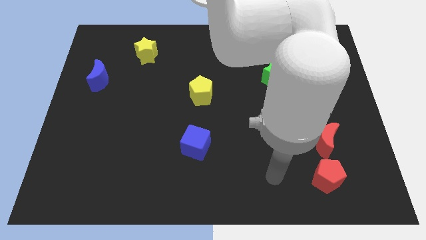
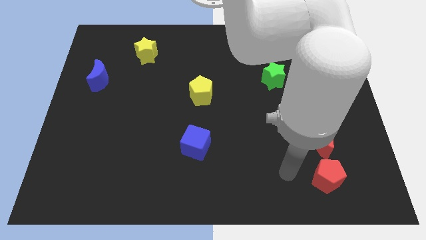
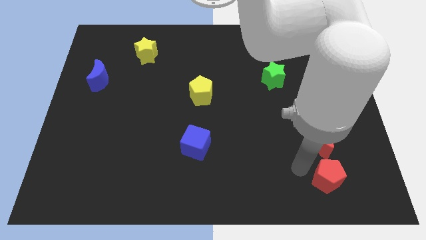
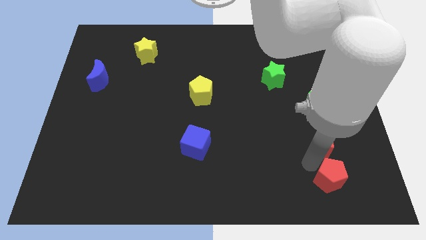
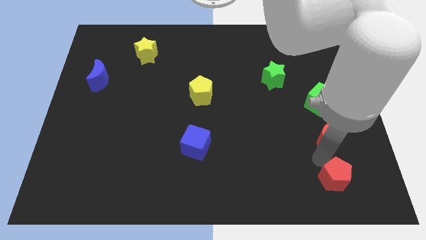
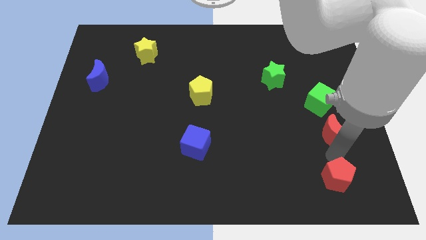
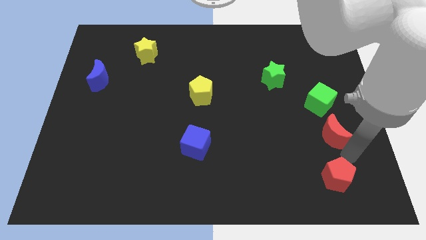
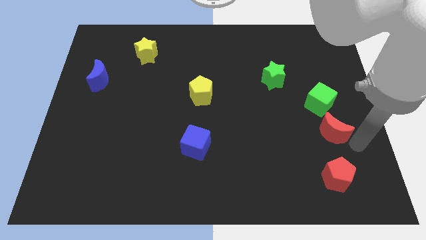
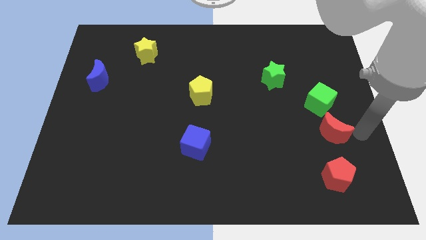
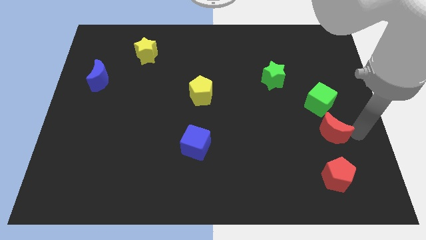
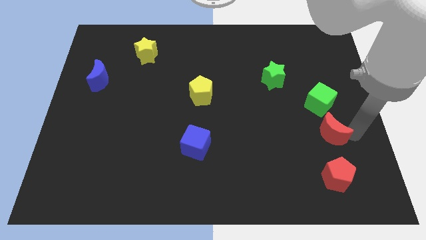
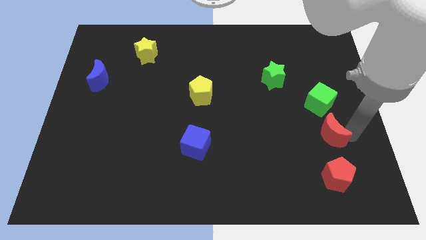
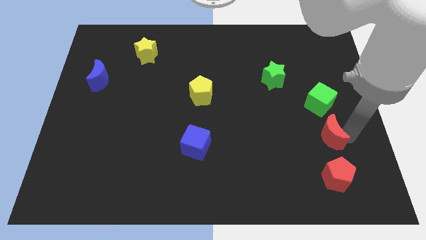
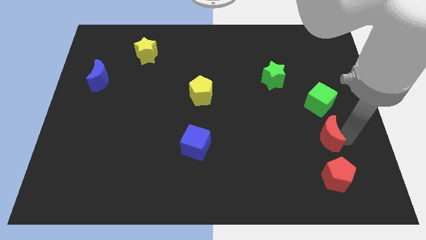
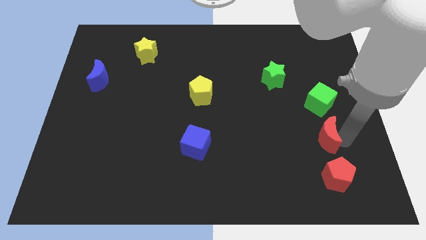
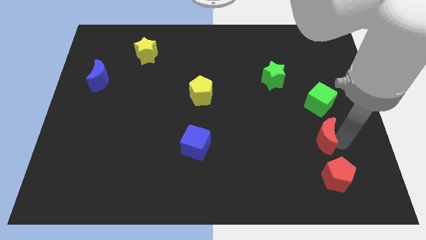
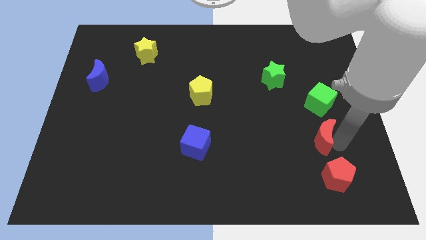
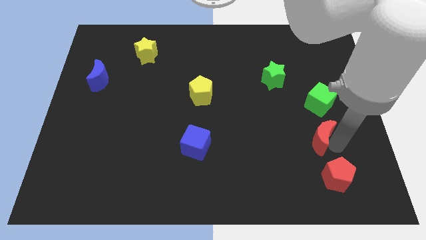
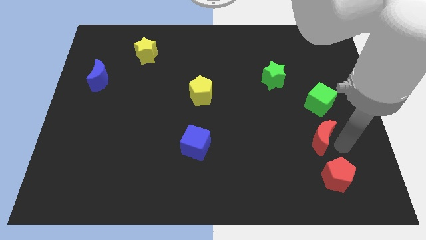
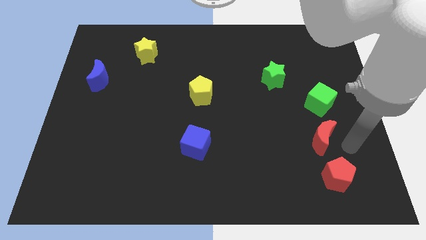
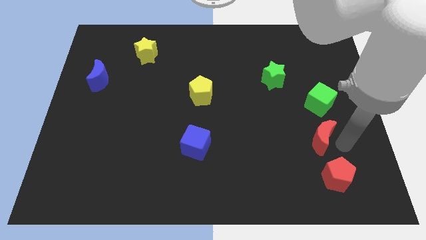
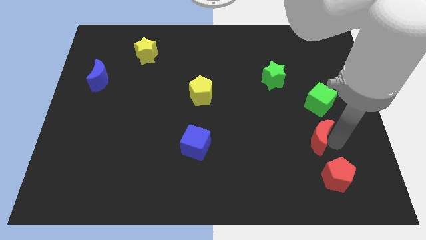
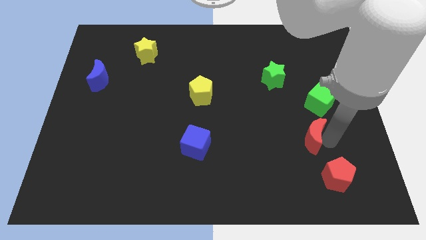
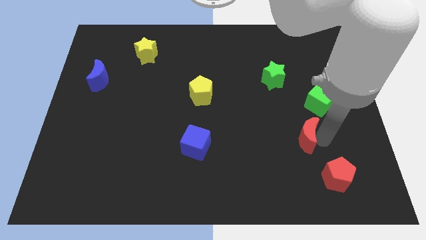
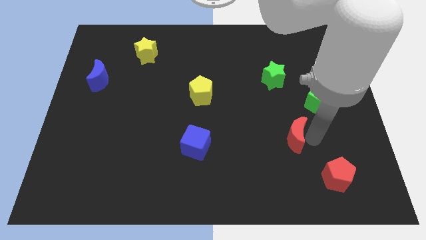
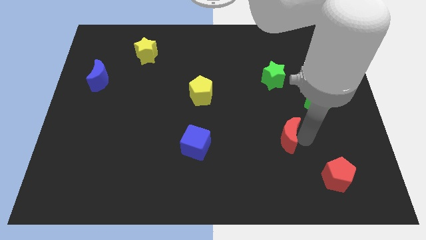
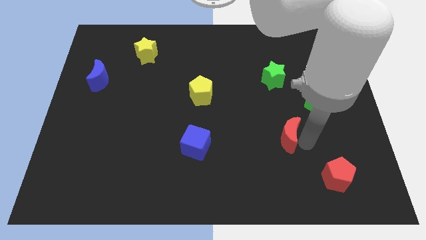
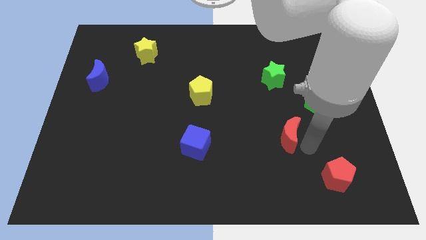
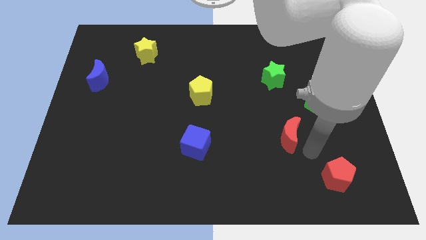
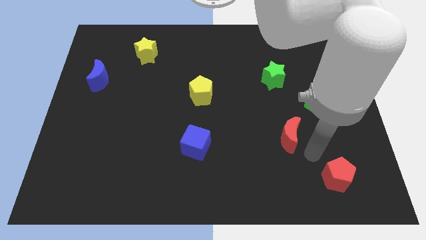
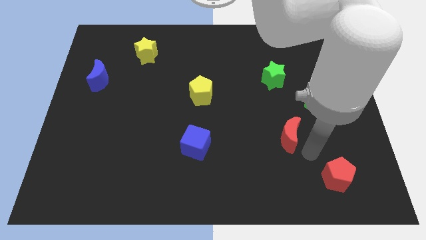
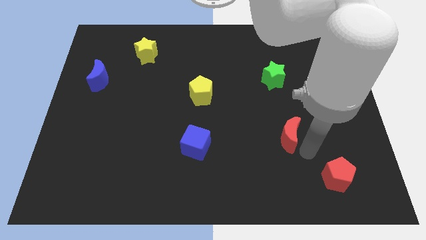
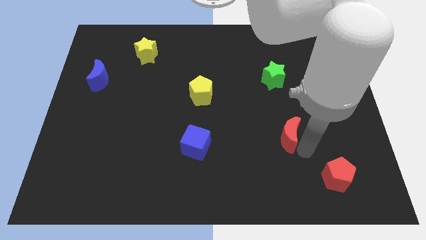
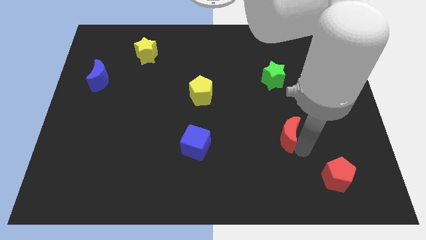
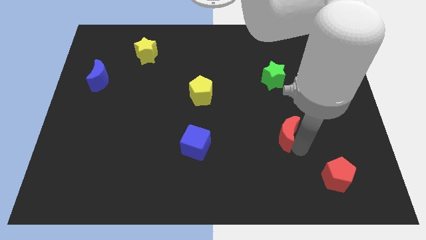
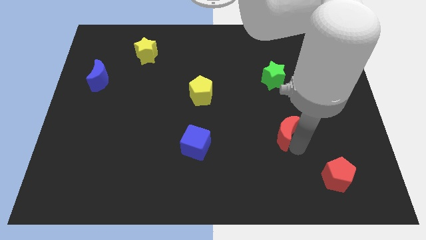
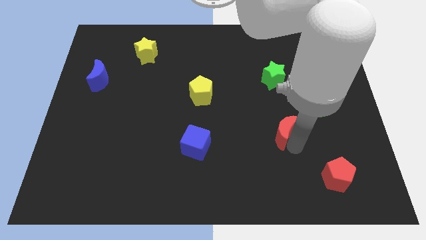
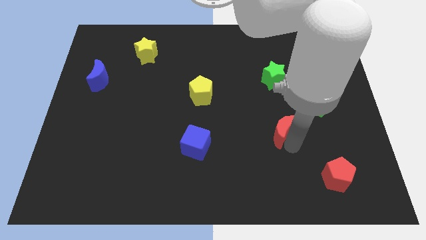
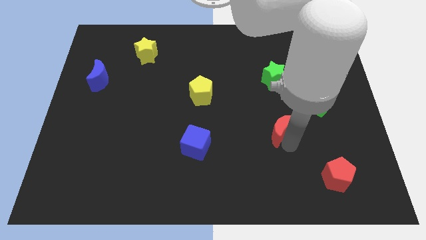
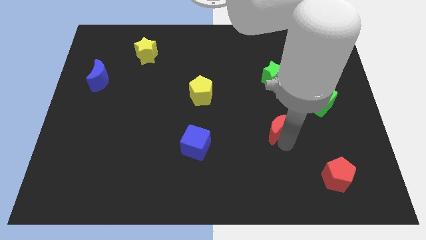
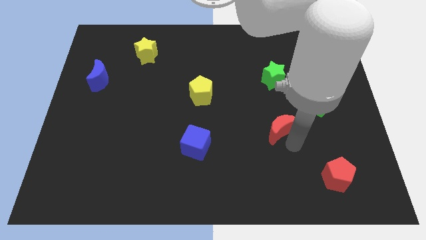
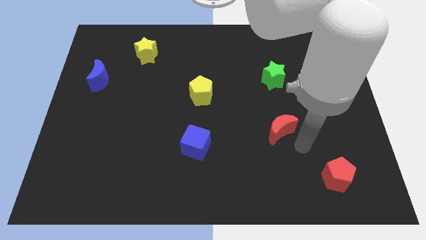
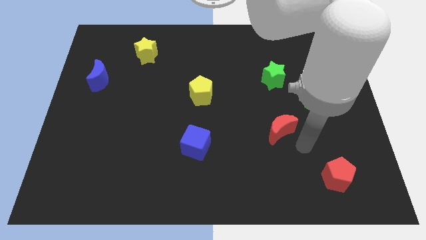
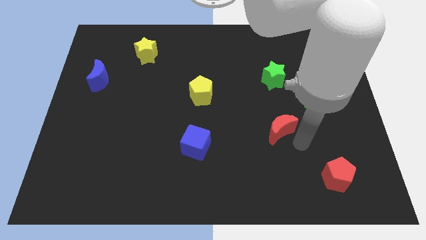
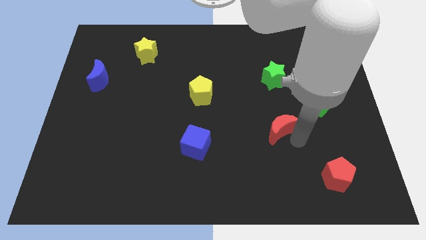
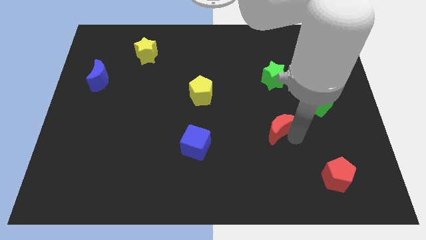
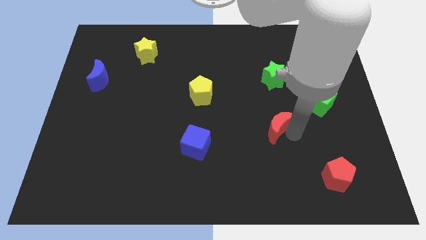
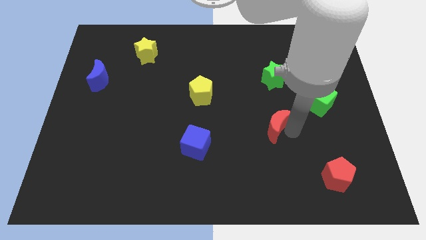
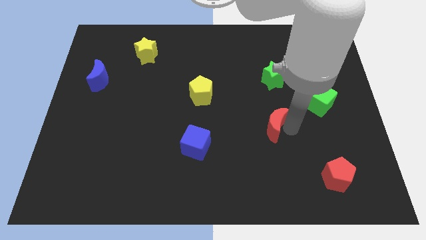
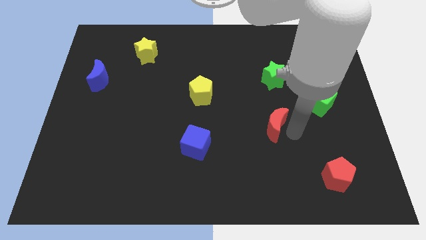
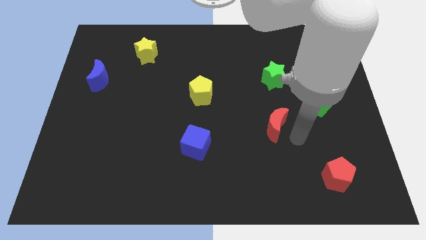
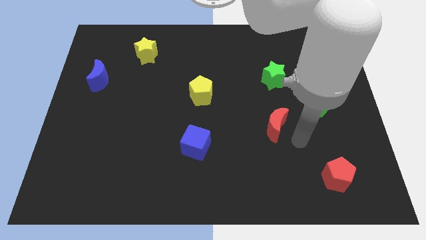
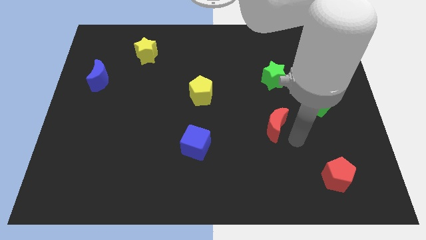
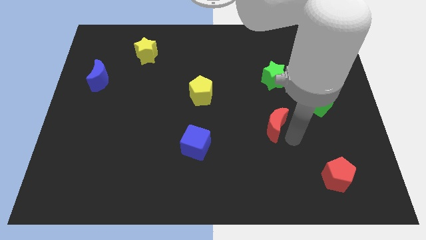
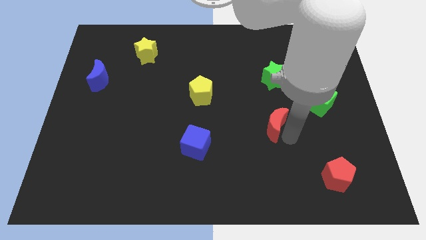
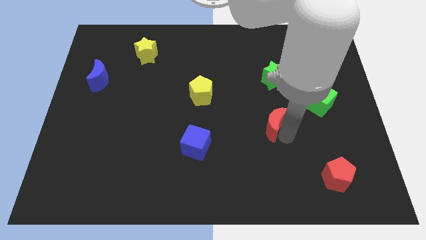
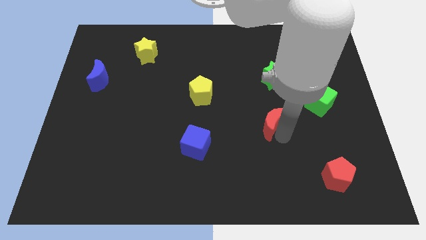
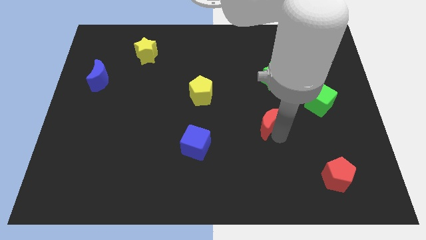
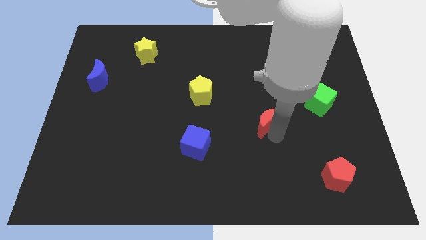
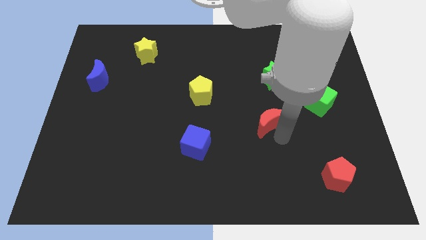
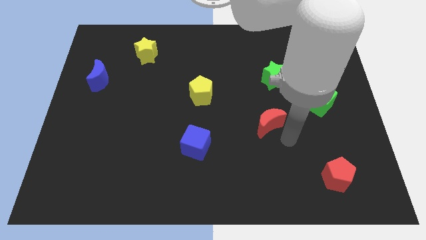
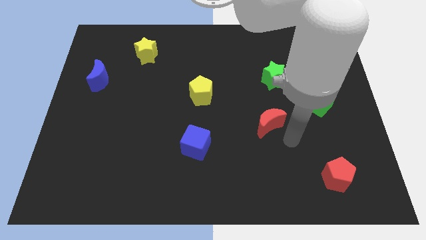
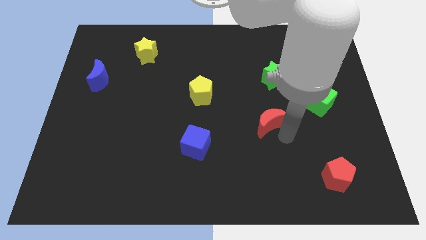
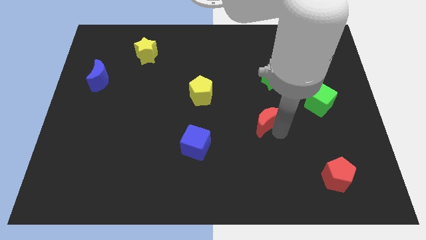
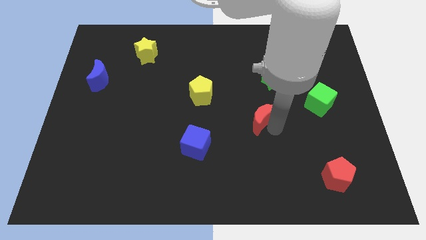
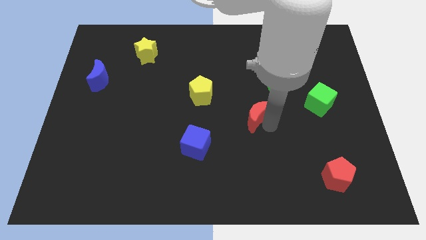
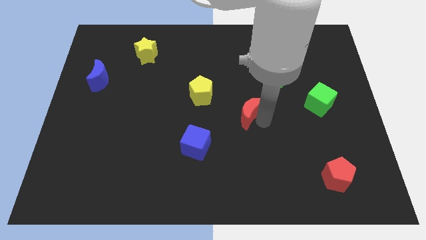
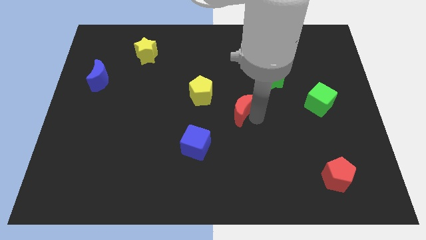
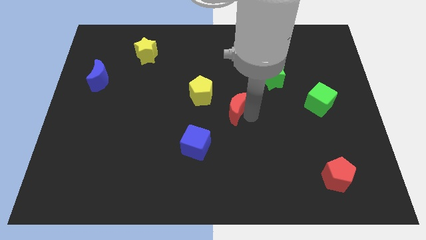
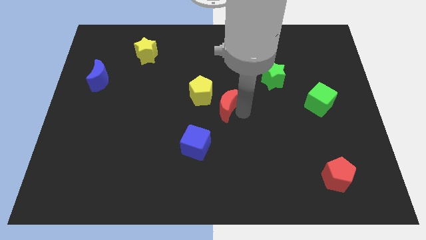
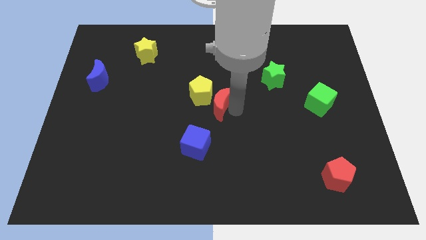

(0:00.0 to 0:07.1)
put the red moon towards the yellow pentagon
